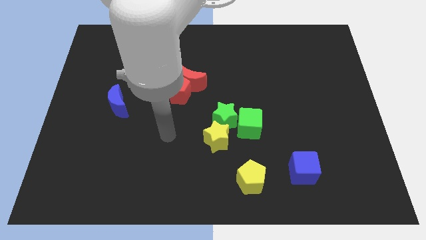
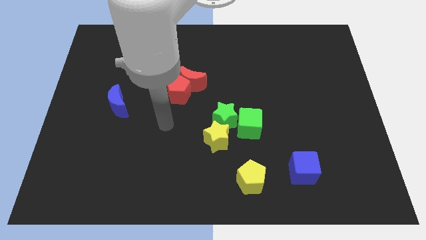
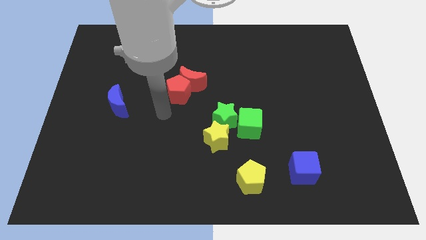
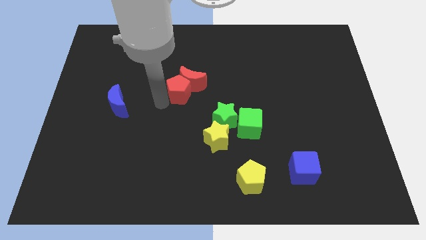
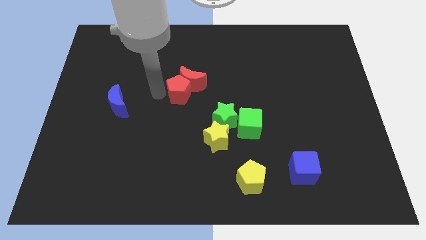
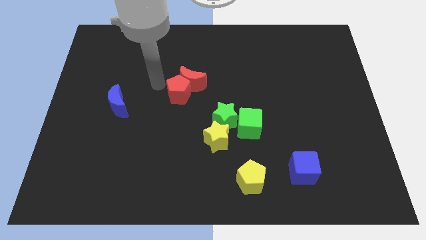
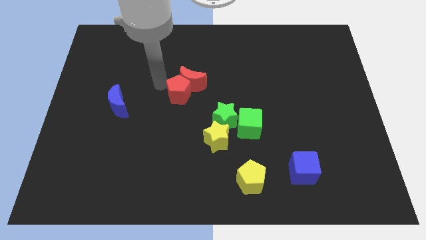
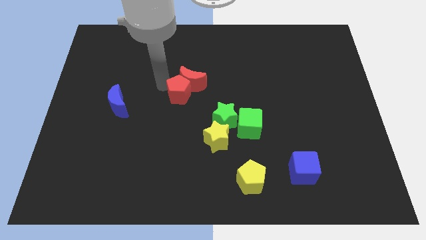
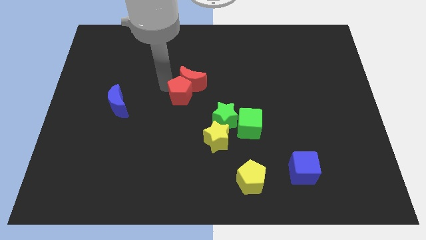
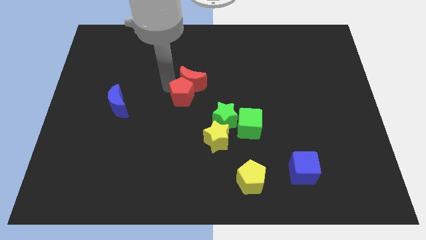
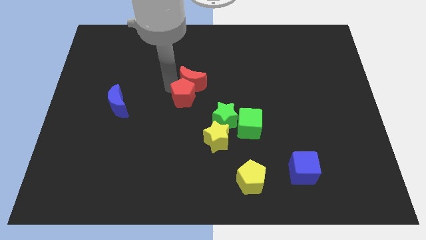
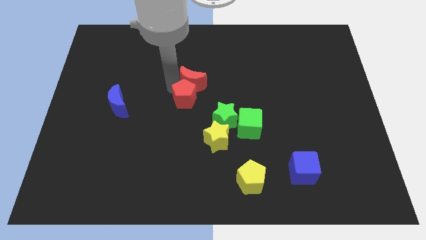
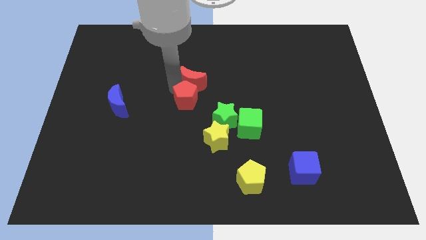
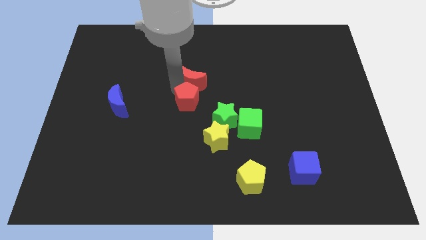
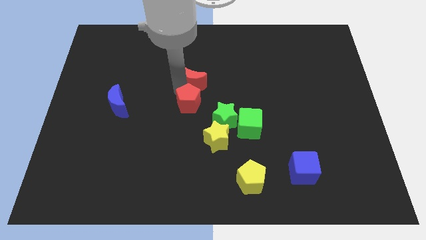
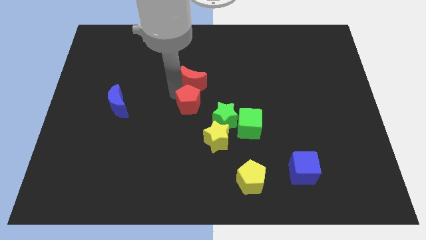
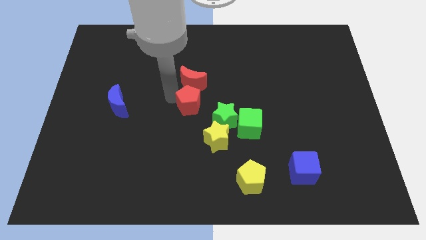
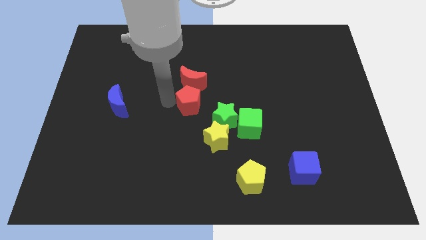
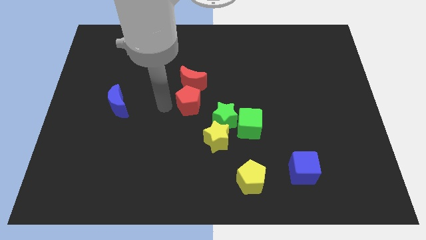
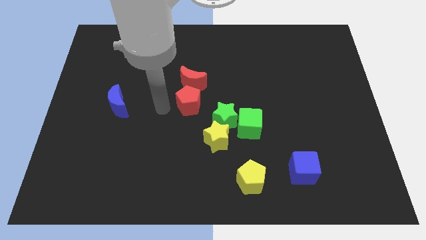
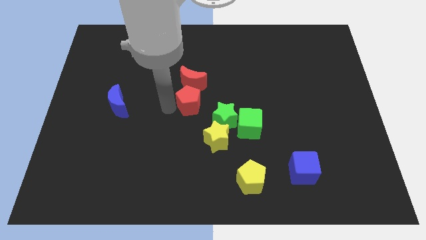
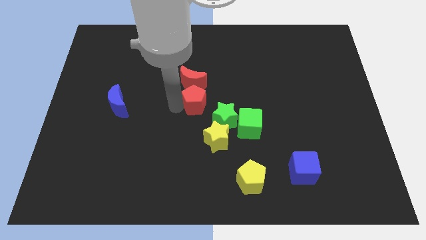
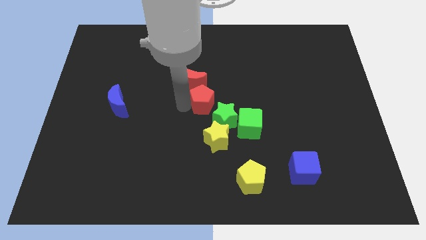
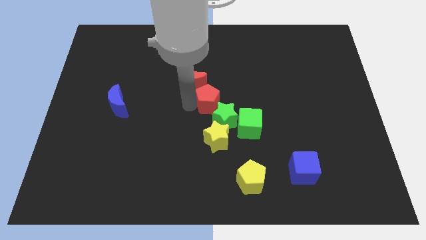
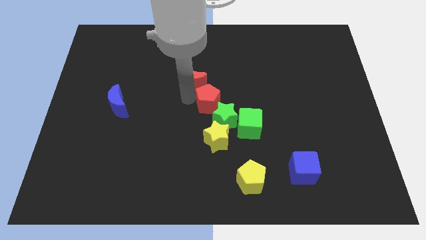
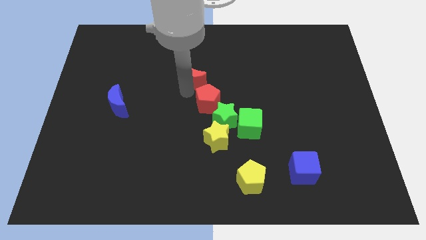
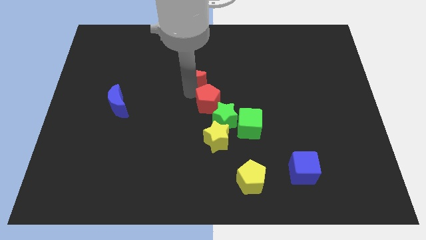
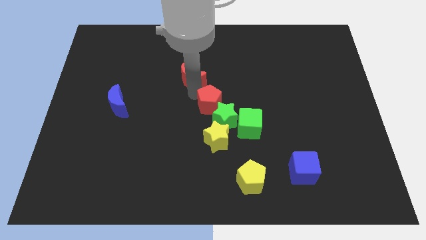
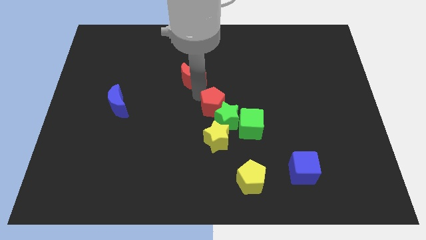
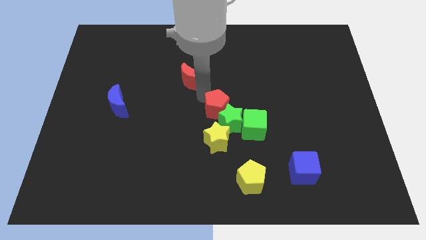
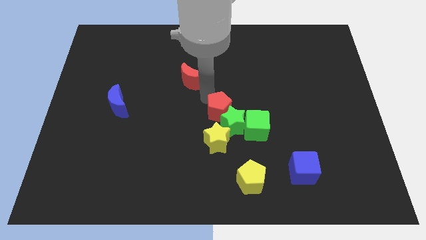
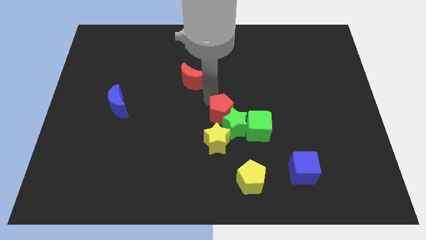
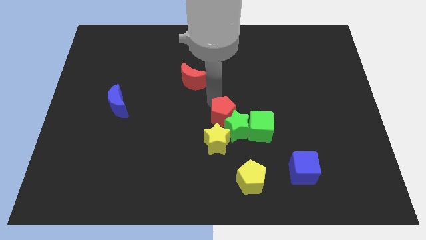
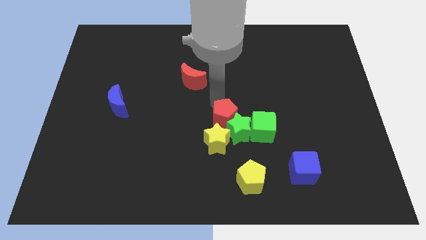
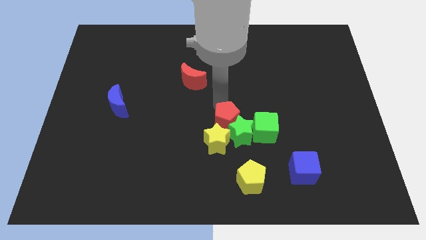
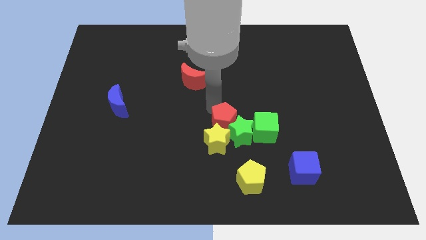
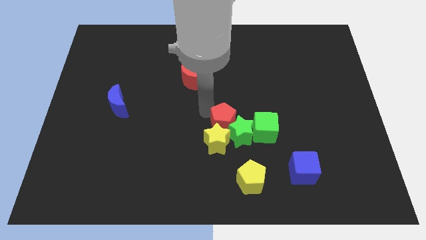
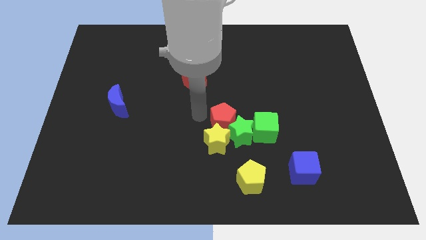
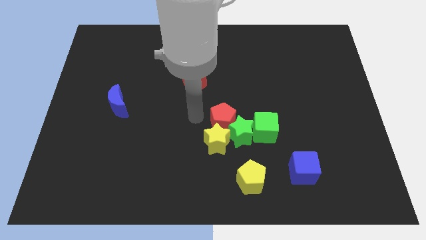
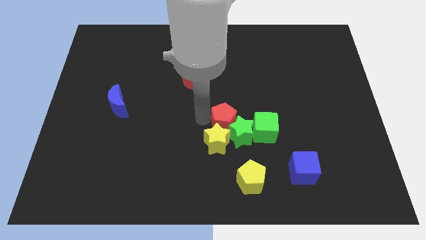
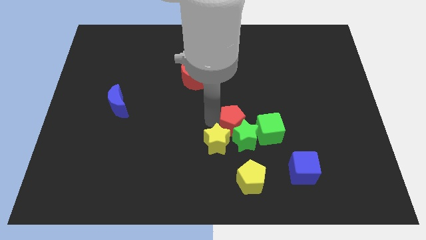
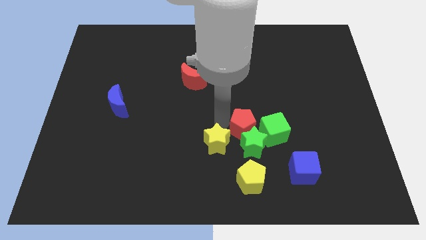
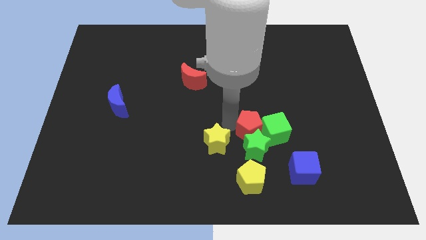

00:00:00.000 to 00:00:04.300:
put the red pentagon next to the green cube

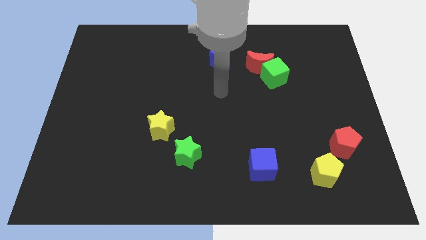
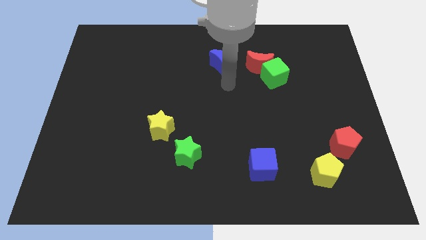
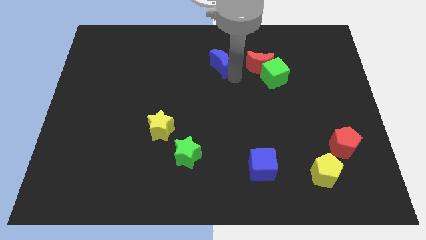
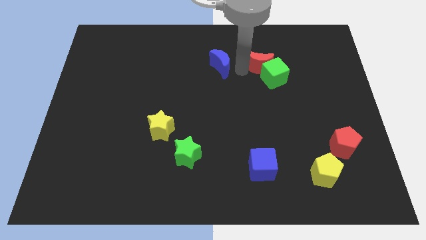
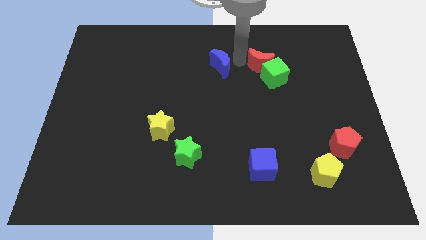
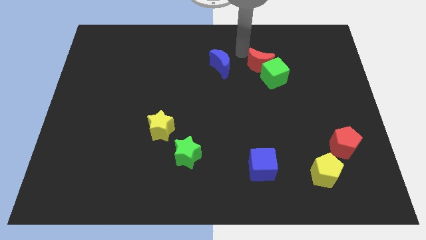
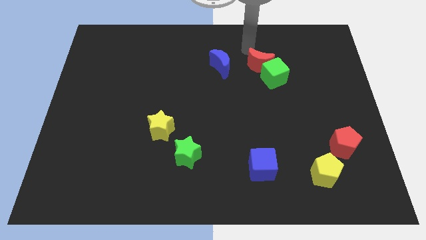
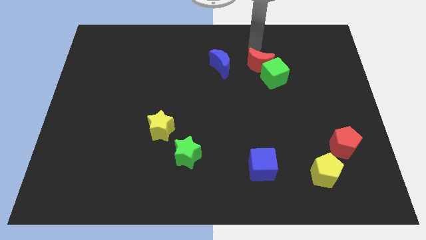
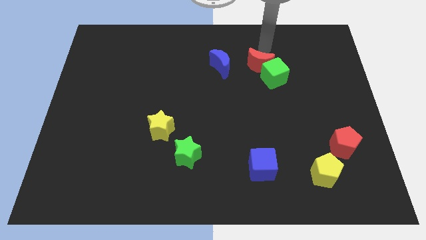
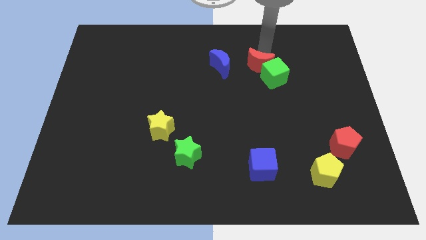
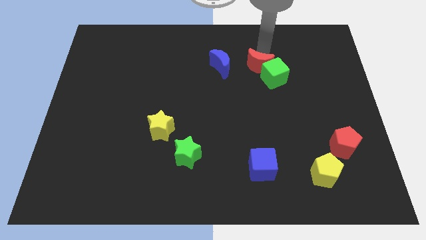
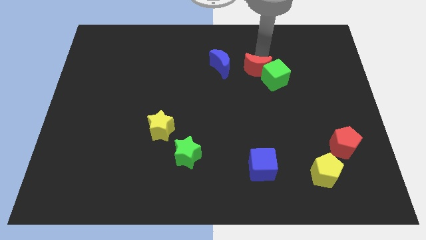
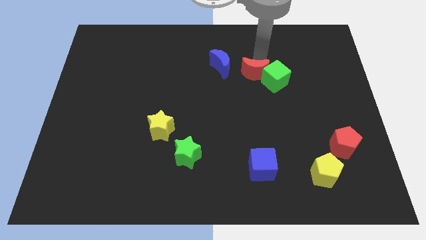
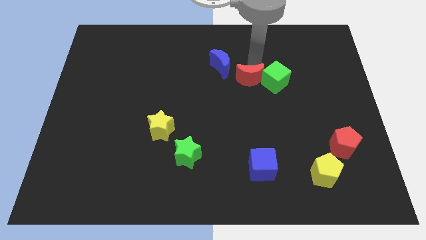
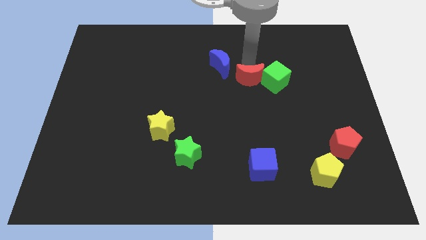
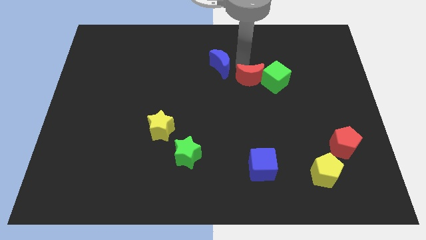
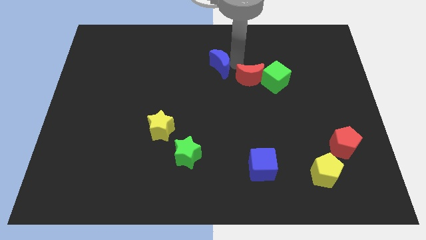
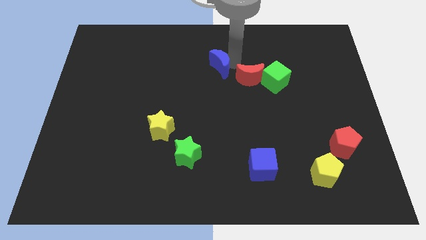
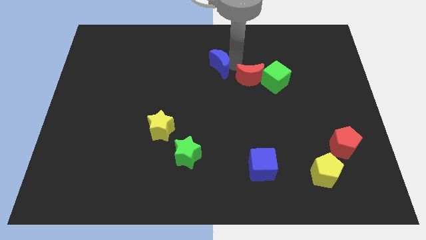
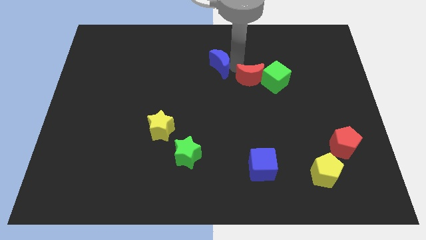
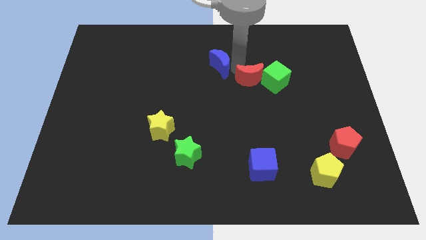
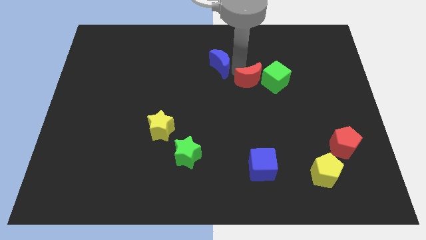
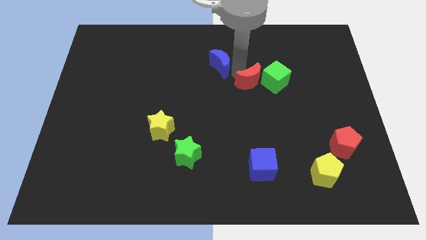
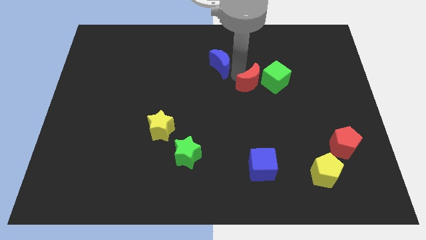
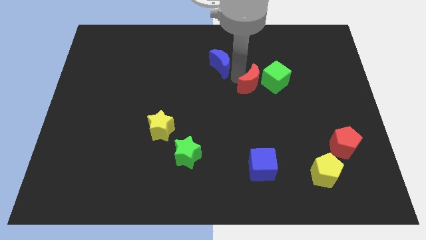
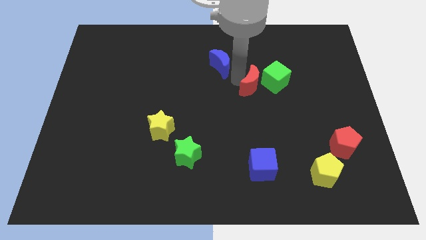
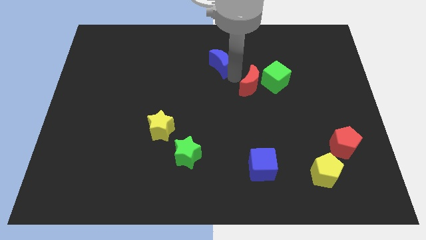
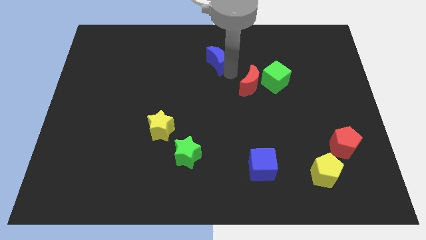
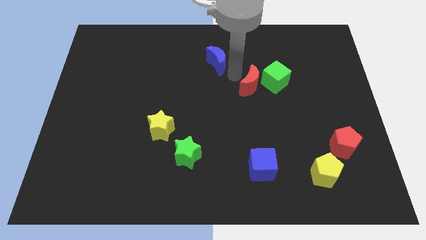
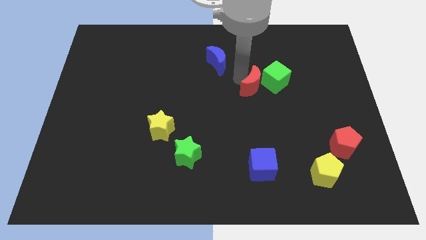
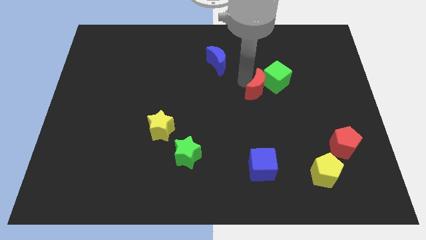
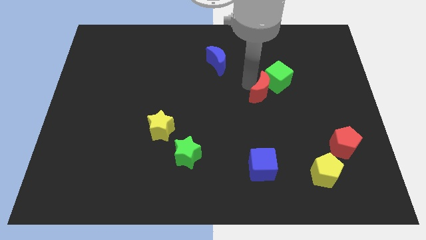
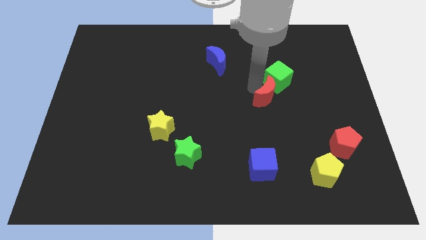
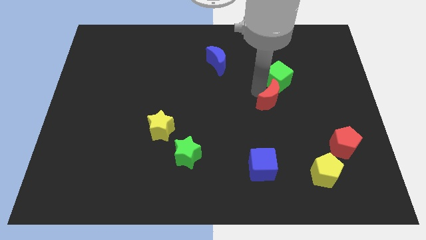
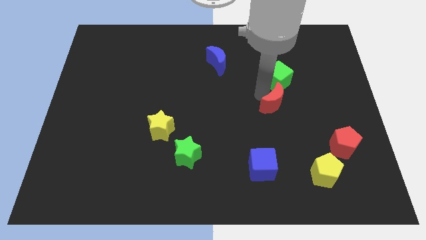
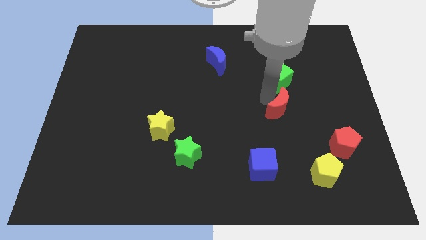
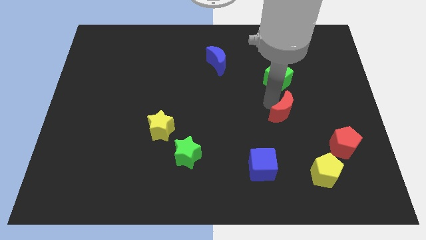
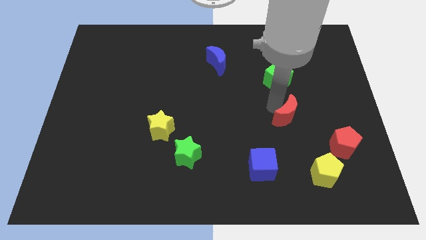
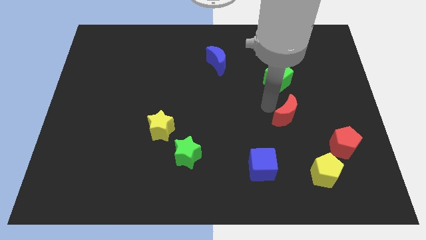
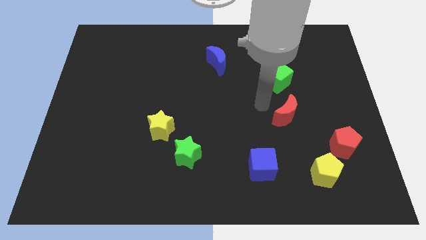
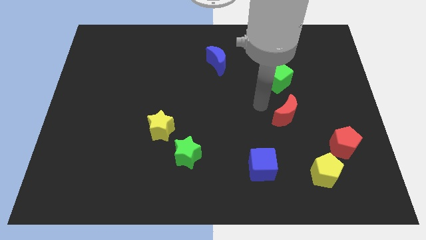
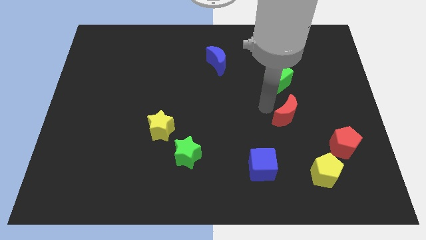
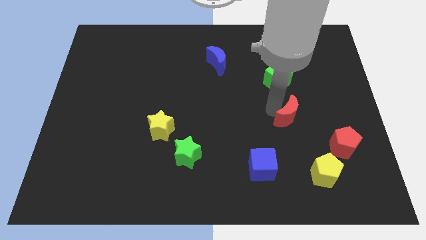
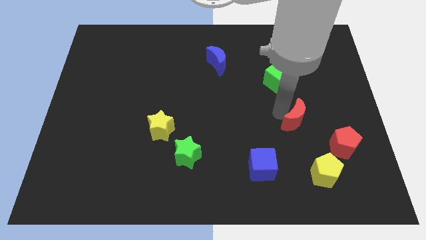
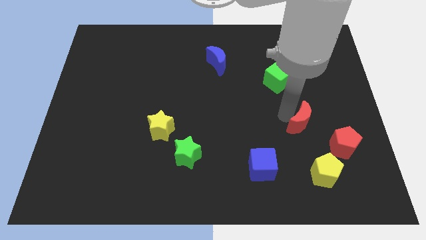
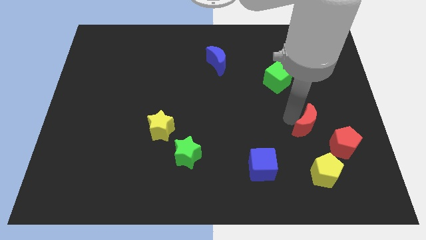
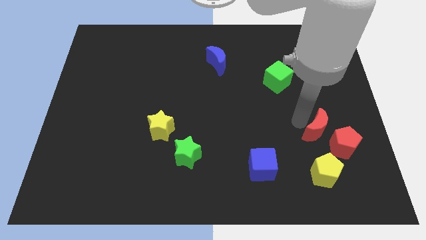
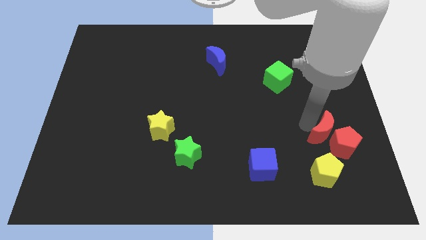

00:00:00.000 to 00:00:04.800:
push the red moon towards the red pentagon
